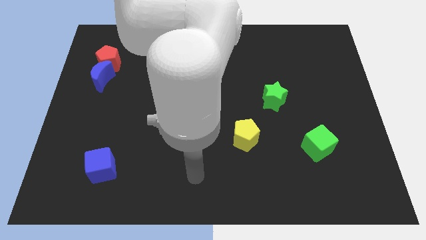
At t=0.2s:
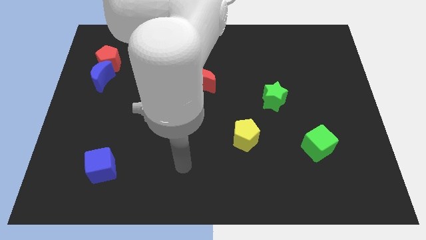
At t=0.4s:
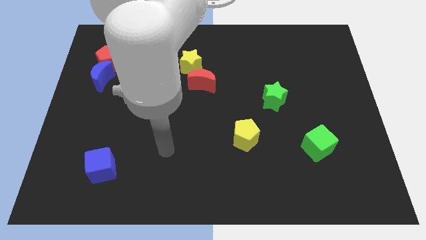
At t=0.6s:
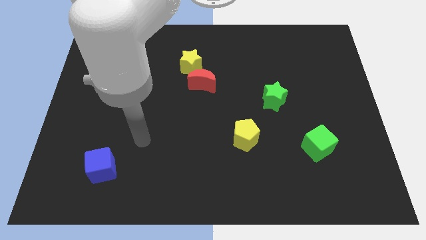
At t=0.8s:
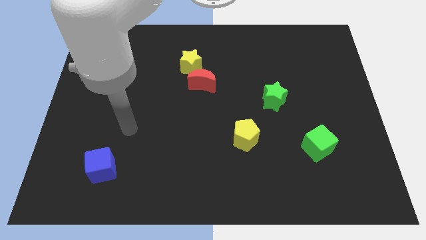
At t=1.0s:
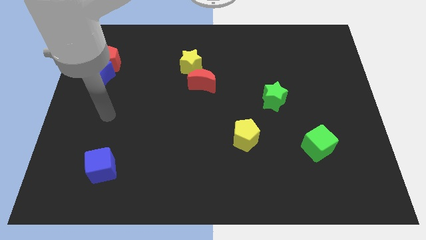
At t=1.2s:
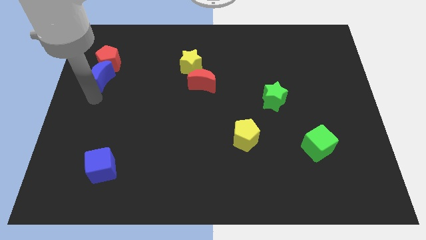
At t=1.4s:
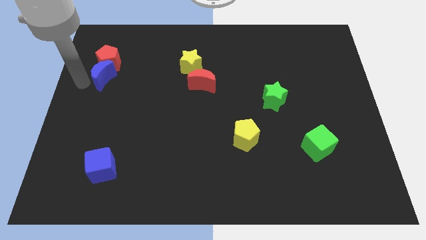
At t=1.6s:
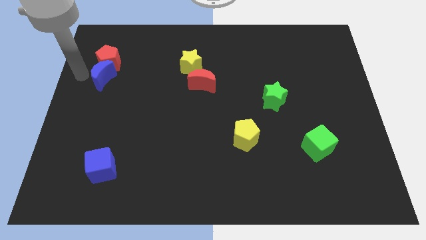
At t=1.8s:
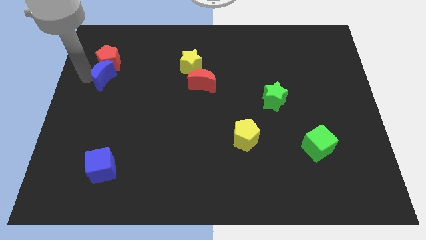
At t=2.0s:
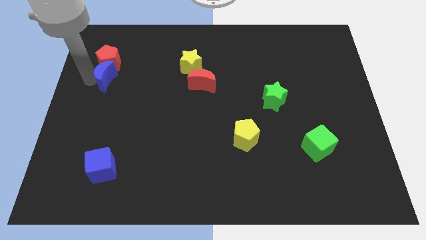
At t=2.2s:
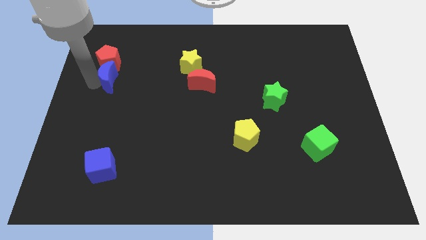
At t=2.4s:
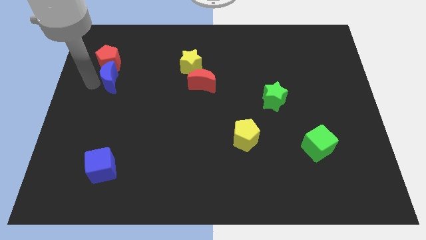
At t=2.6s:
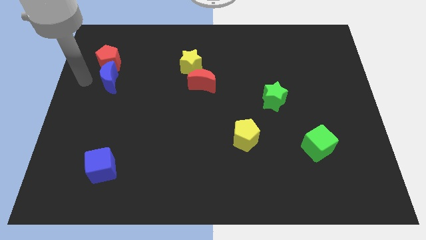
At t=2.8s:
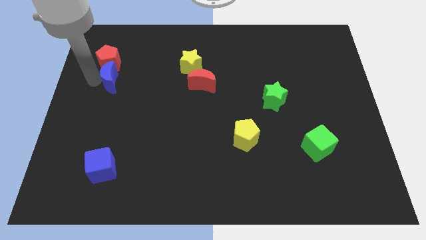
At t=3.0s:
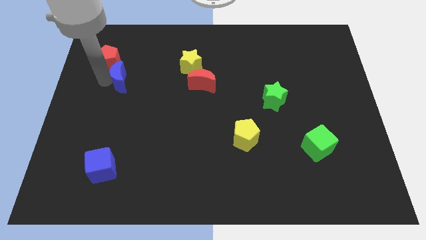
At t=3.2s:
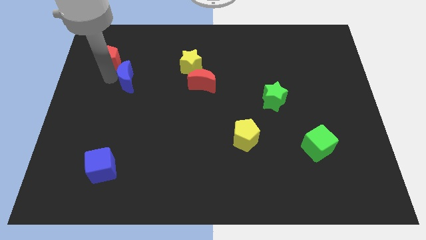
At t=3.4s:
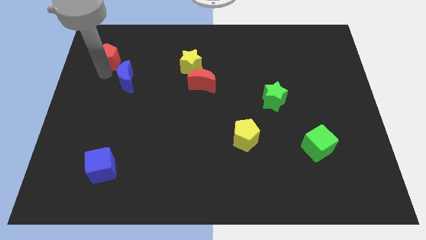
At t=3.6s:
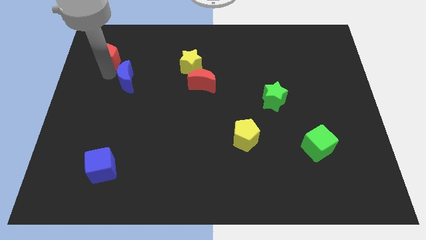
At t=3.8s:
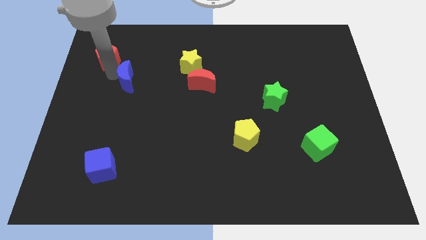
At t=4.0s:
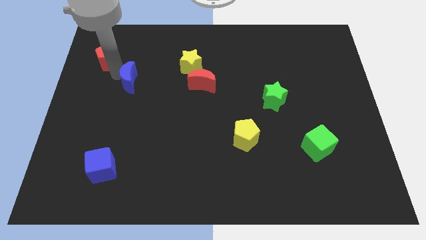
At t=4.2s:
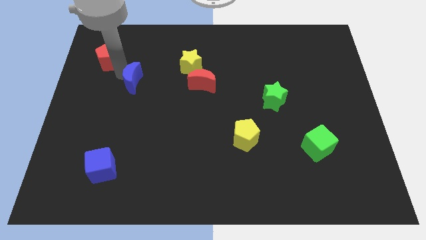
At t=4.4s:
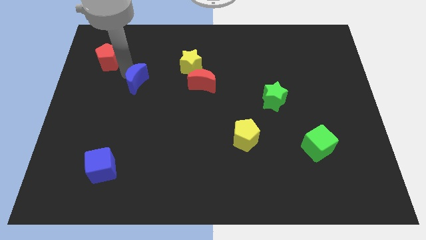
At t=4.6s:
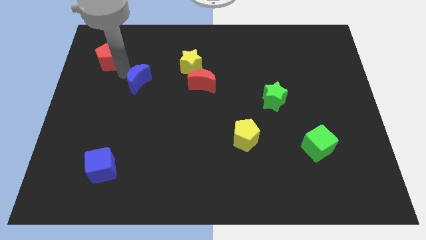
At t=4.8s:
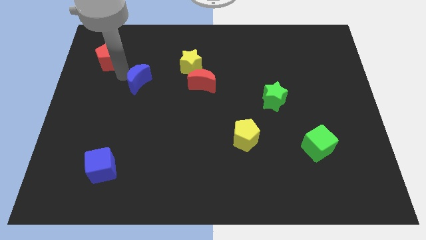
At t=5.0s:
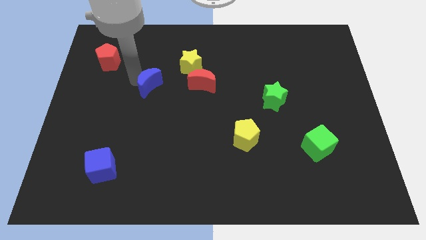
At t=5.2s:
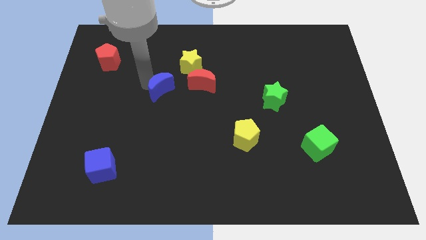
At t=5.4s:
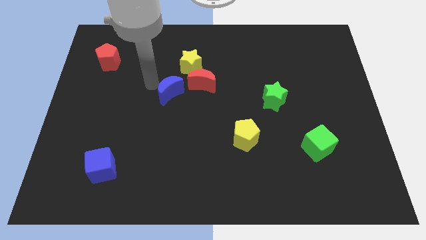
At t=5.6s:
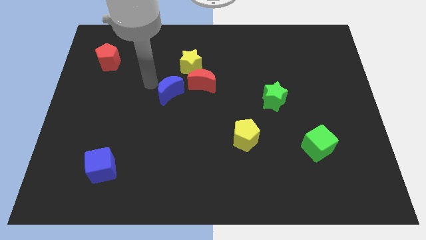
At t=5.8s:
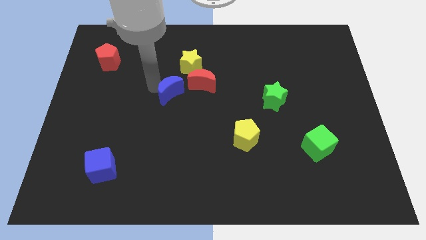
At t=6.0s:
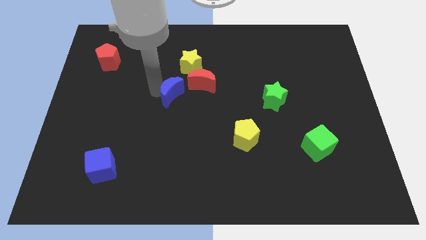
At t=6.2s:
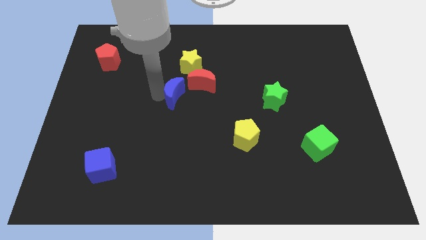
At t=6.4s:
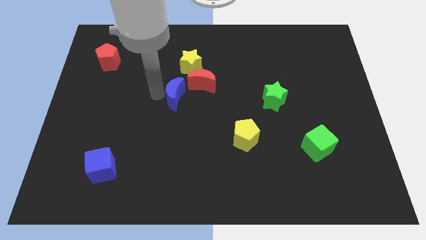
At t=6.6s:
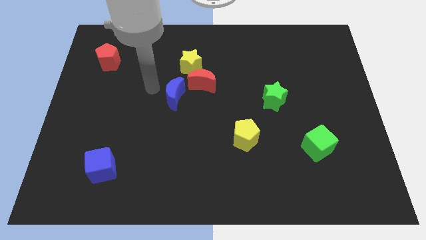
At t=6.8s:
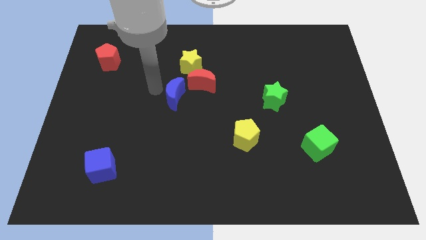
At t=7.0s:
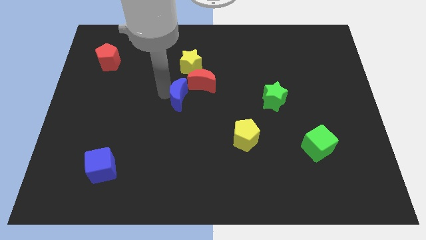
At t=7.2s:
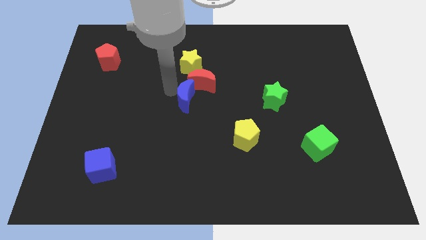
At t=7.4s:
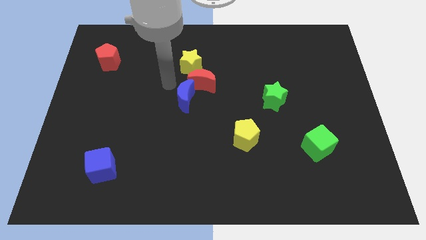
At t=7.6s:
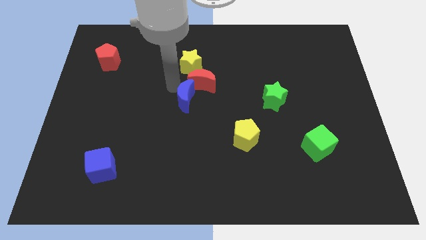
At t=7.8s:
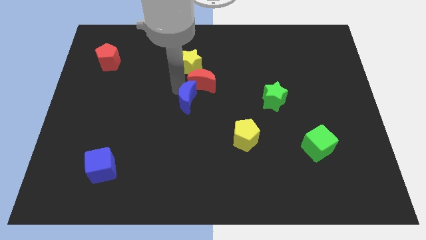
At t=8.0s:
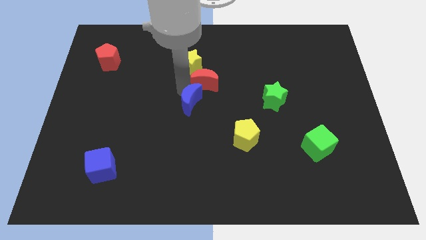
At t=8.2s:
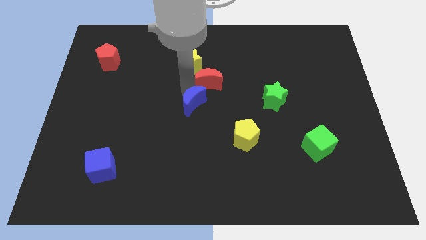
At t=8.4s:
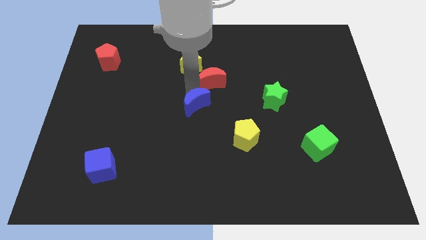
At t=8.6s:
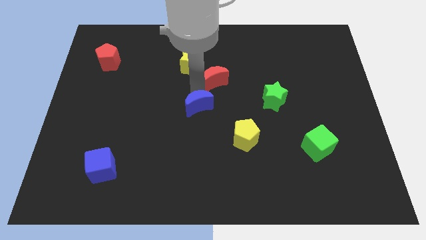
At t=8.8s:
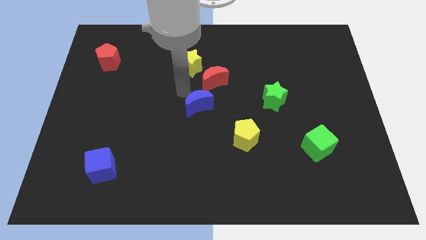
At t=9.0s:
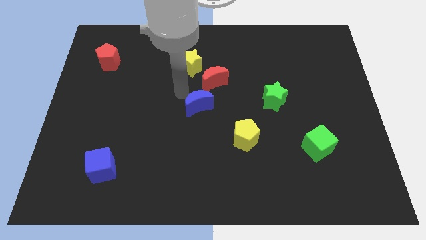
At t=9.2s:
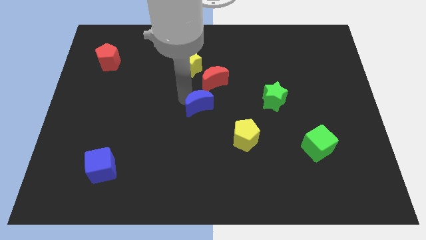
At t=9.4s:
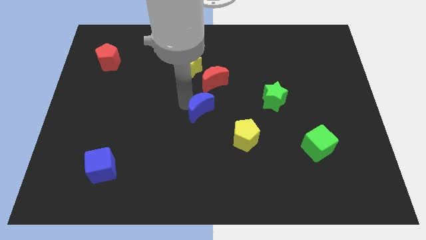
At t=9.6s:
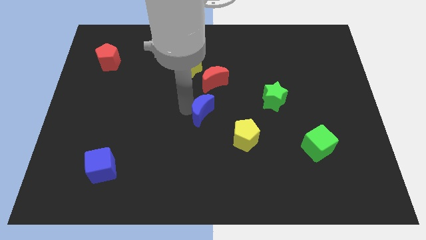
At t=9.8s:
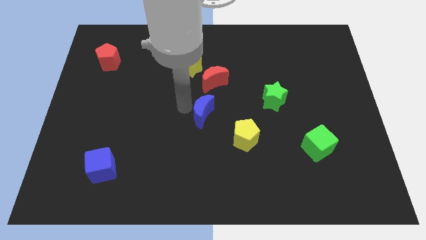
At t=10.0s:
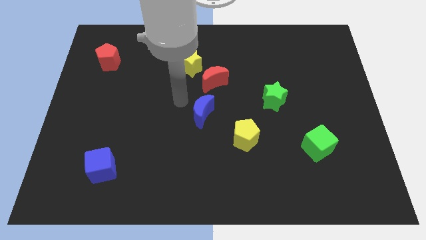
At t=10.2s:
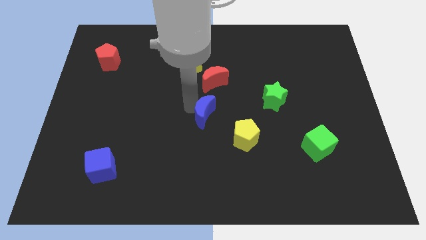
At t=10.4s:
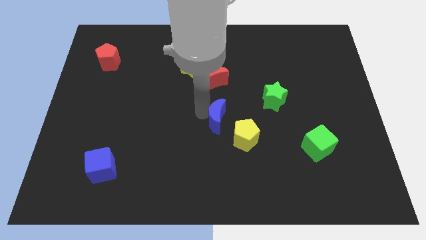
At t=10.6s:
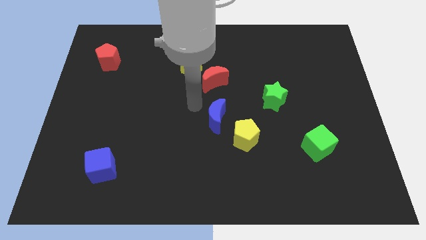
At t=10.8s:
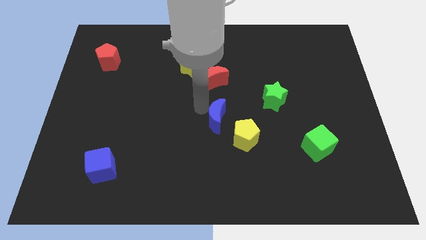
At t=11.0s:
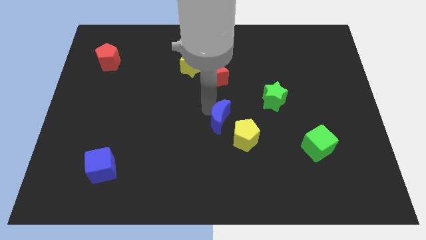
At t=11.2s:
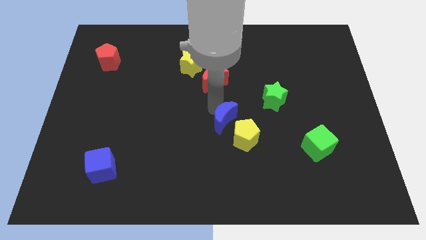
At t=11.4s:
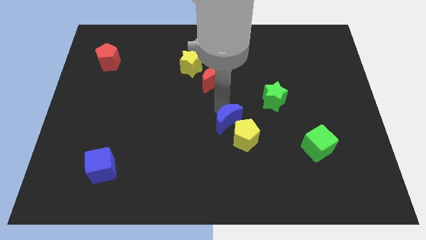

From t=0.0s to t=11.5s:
put the blue moon next to the yellow pentagon

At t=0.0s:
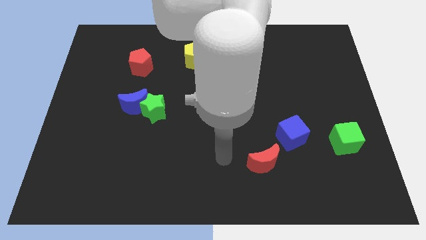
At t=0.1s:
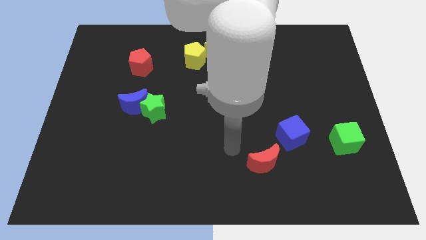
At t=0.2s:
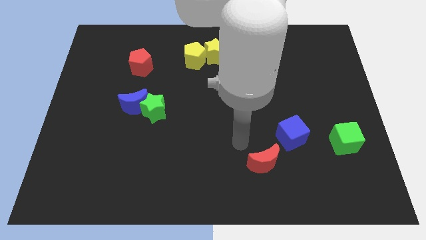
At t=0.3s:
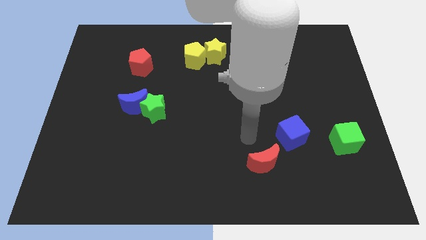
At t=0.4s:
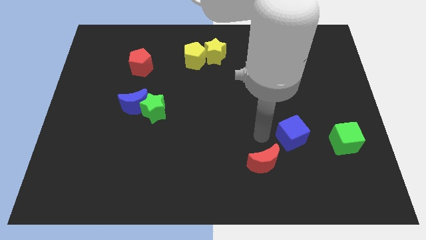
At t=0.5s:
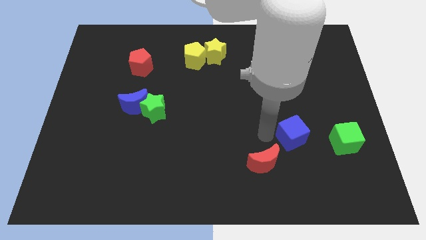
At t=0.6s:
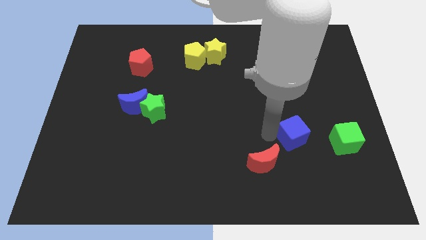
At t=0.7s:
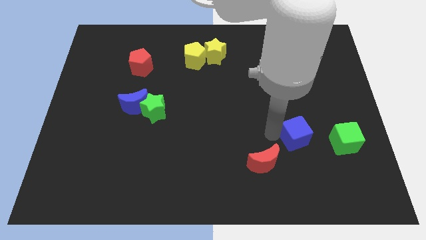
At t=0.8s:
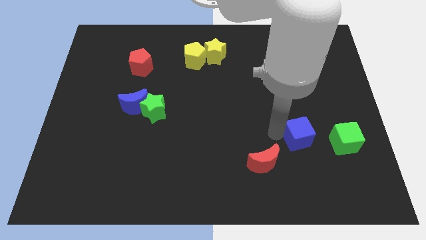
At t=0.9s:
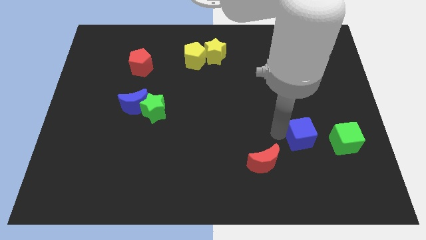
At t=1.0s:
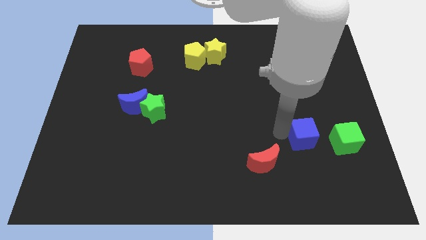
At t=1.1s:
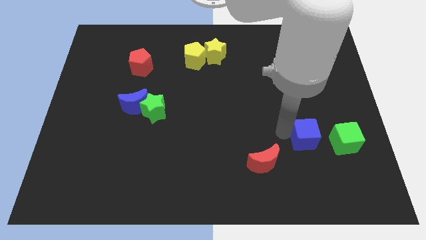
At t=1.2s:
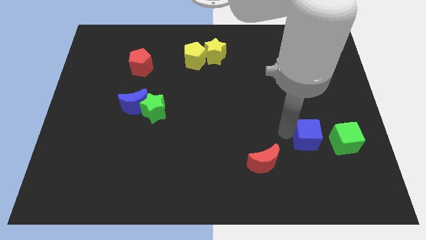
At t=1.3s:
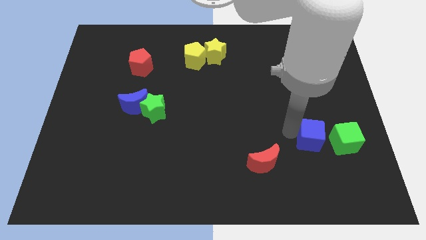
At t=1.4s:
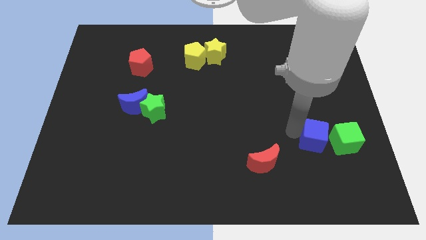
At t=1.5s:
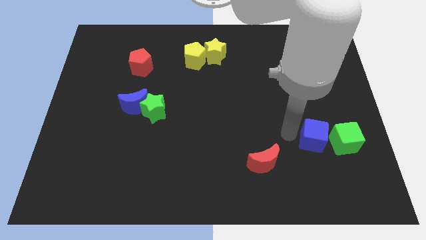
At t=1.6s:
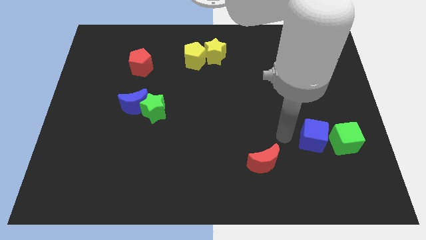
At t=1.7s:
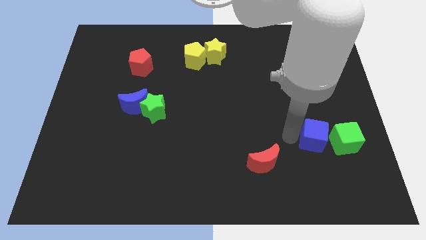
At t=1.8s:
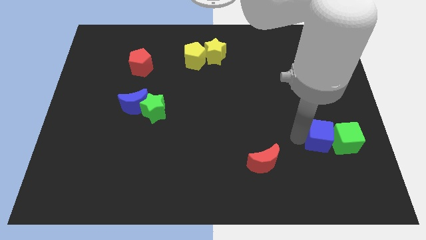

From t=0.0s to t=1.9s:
push the blue cube towards the green cube
